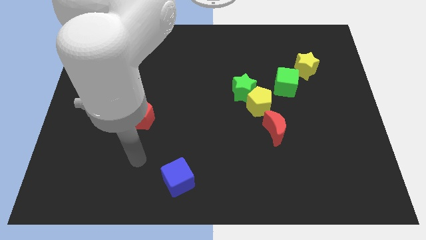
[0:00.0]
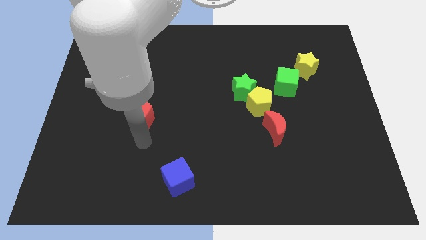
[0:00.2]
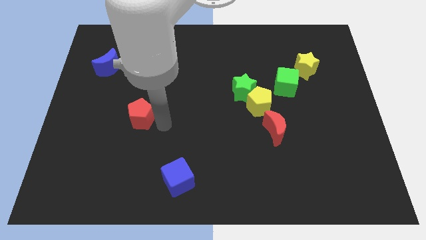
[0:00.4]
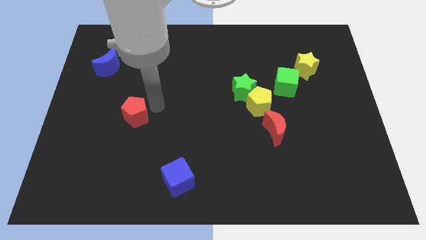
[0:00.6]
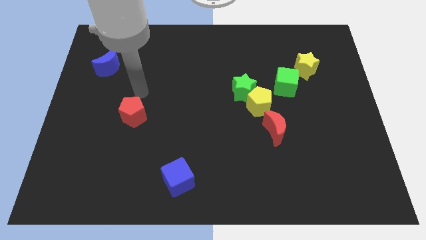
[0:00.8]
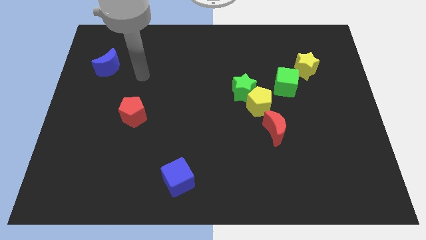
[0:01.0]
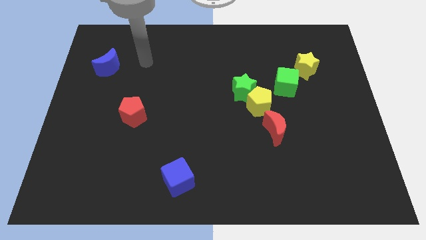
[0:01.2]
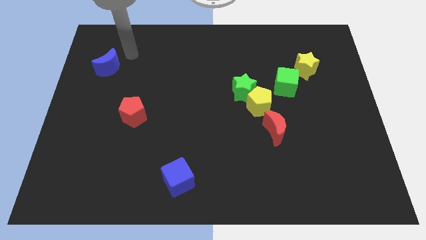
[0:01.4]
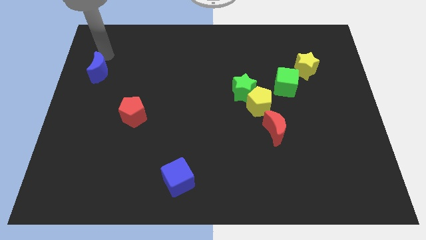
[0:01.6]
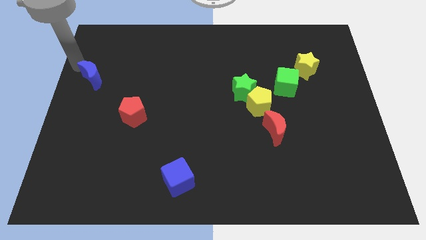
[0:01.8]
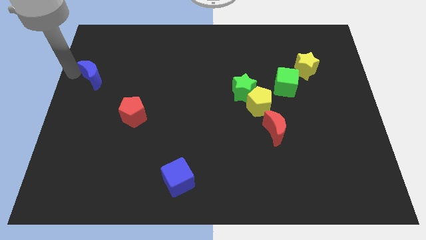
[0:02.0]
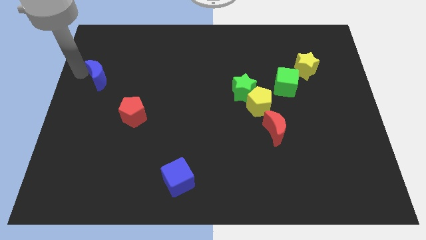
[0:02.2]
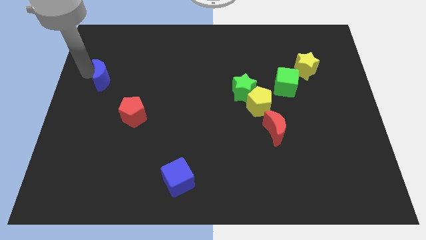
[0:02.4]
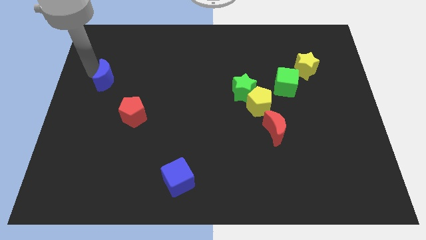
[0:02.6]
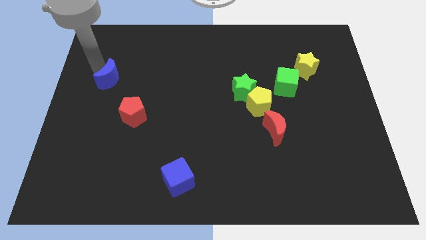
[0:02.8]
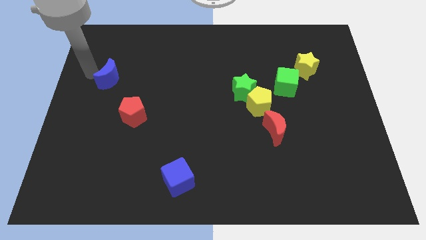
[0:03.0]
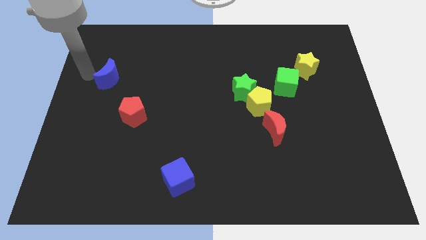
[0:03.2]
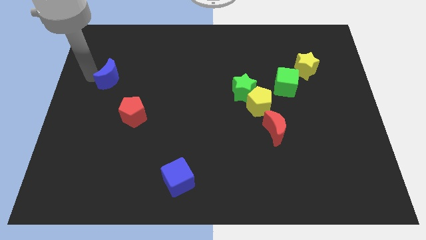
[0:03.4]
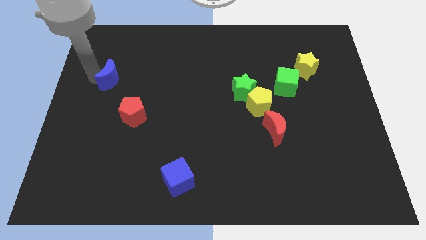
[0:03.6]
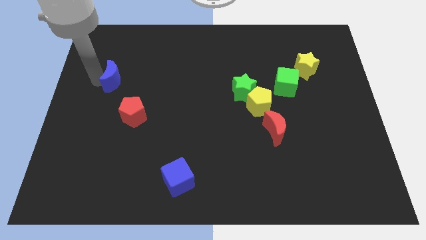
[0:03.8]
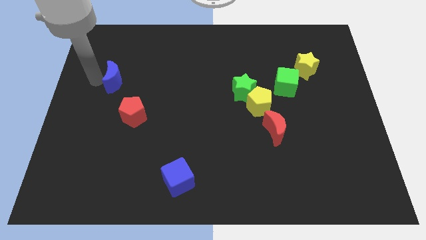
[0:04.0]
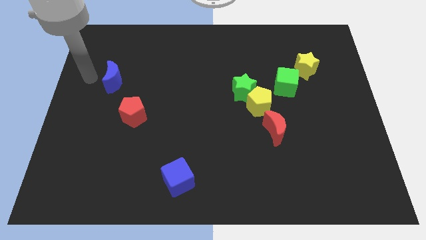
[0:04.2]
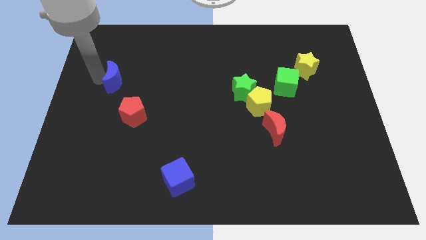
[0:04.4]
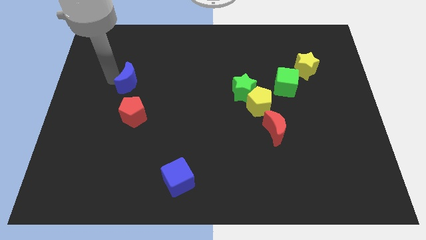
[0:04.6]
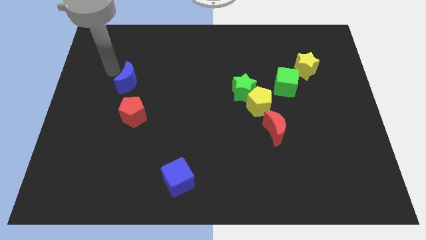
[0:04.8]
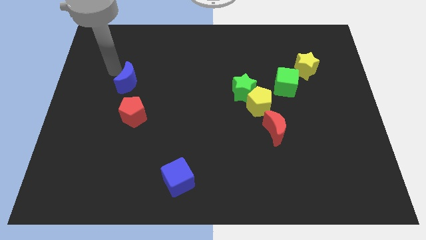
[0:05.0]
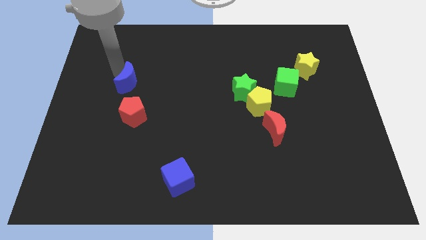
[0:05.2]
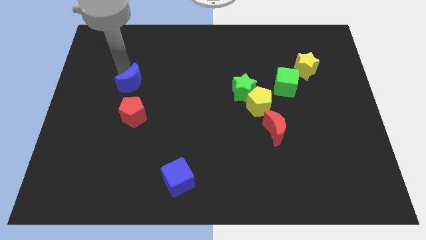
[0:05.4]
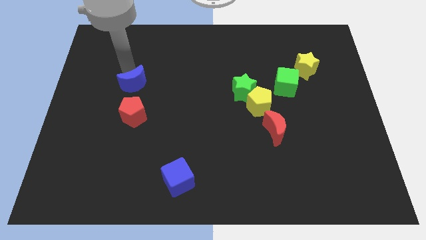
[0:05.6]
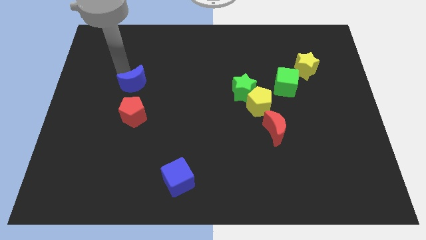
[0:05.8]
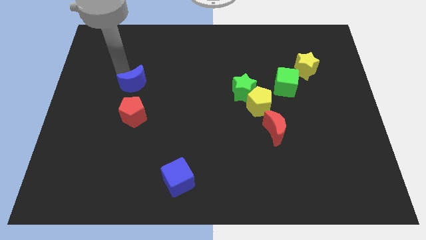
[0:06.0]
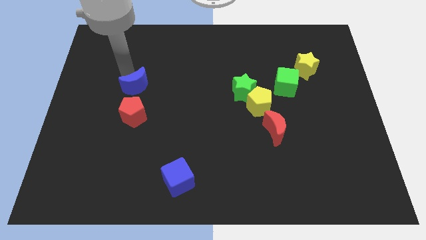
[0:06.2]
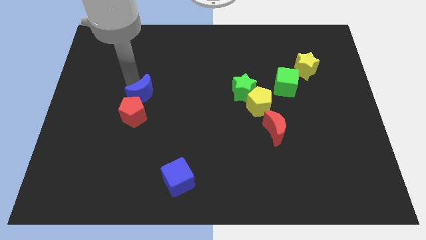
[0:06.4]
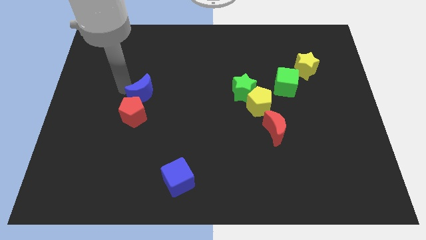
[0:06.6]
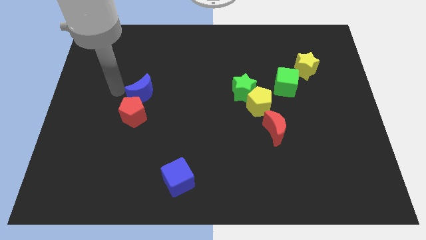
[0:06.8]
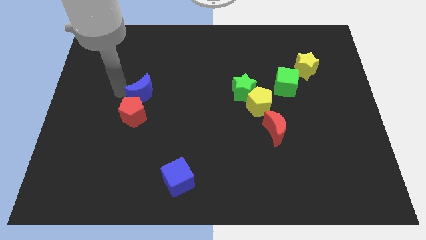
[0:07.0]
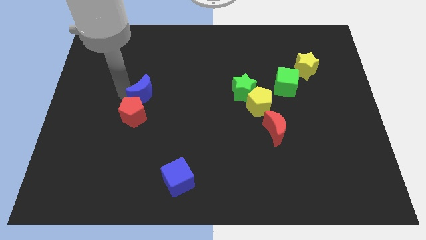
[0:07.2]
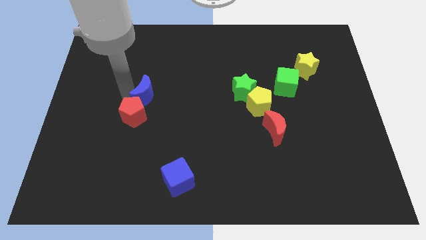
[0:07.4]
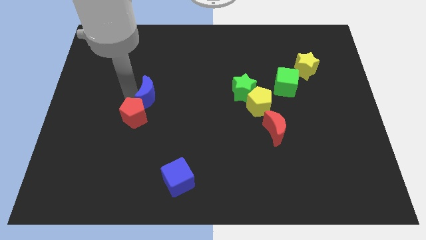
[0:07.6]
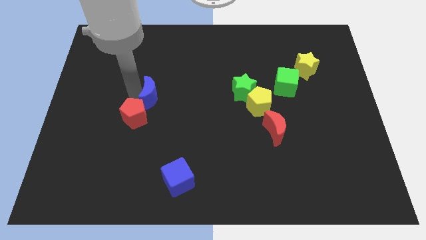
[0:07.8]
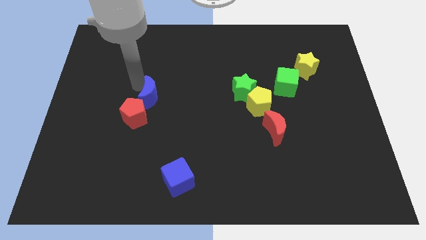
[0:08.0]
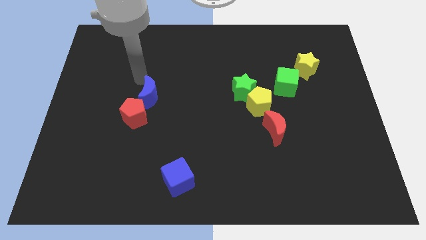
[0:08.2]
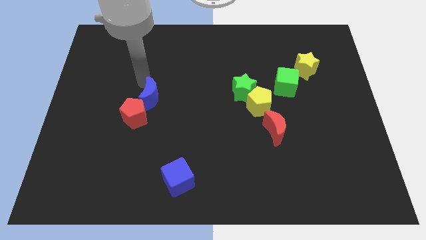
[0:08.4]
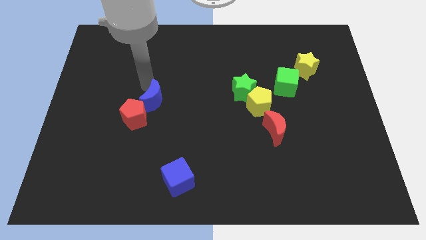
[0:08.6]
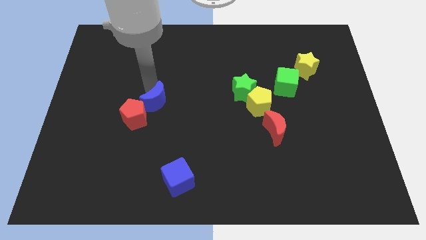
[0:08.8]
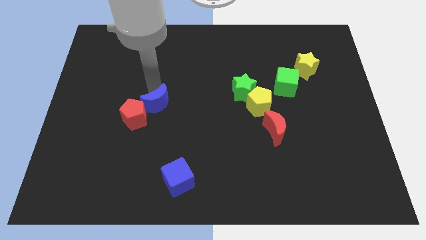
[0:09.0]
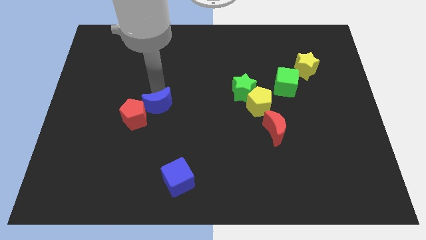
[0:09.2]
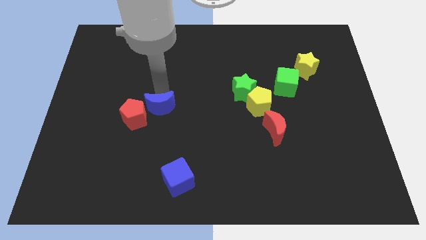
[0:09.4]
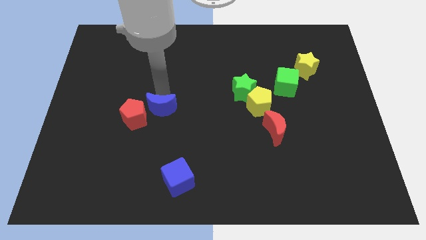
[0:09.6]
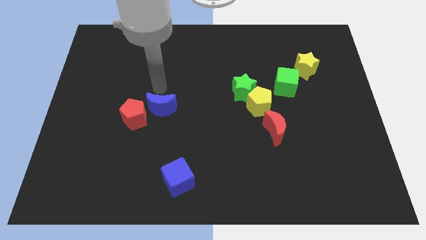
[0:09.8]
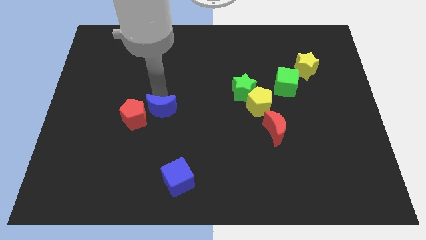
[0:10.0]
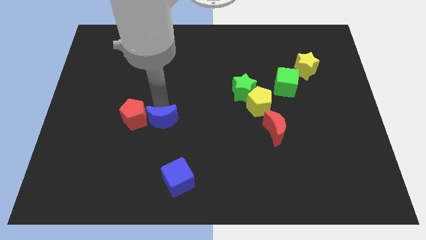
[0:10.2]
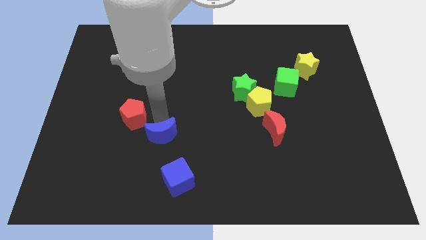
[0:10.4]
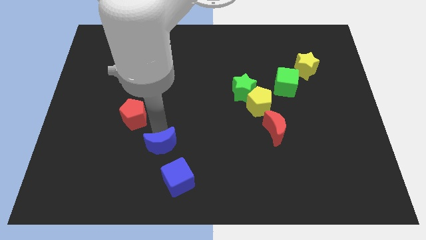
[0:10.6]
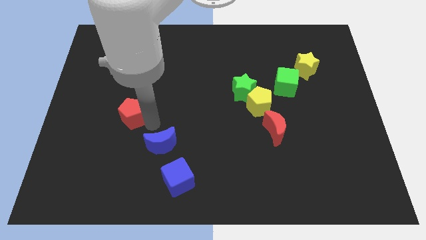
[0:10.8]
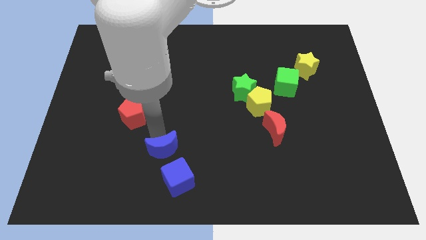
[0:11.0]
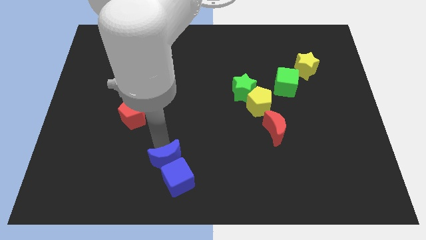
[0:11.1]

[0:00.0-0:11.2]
put the blue moon towards the blue cube

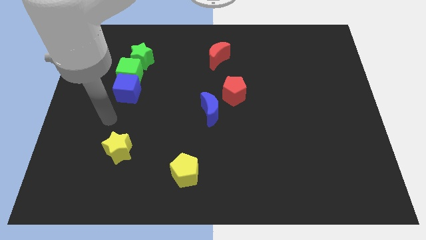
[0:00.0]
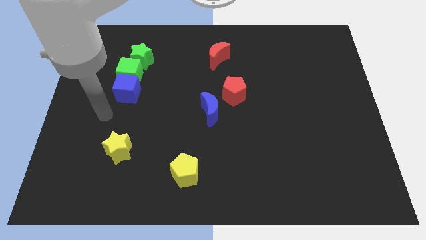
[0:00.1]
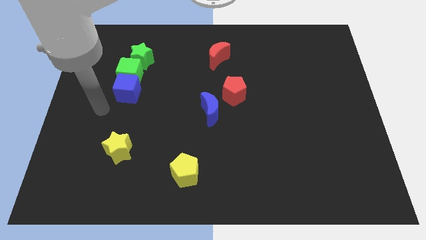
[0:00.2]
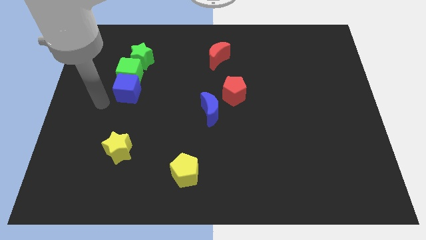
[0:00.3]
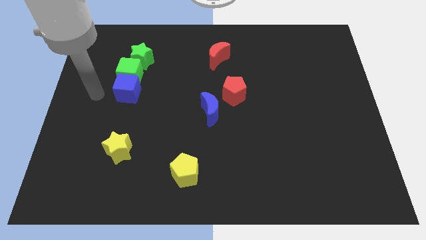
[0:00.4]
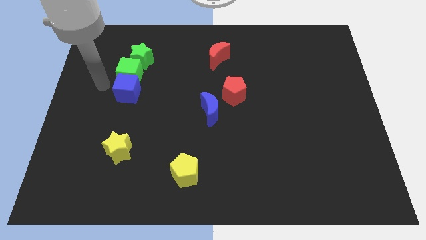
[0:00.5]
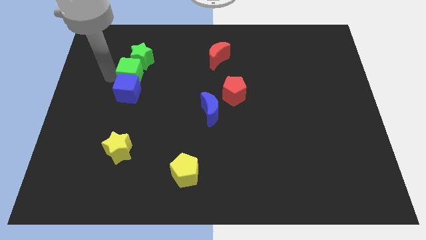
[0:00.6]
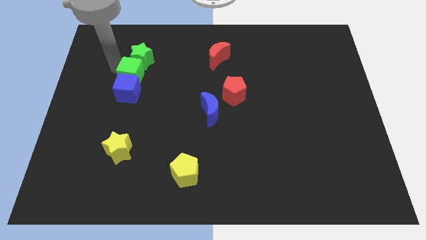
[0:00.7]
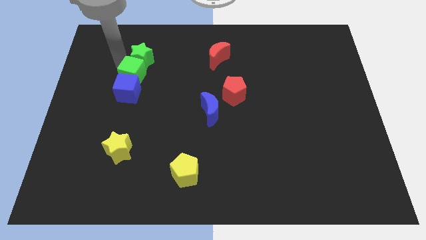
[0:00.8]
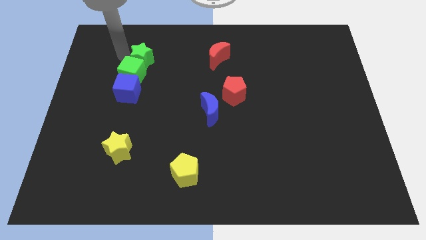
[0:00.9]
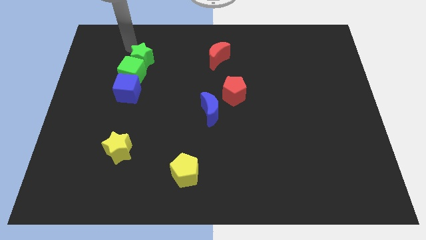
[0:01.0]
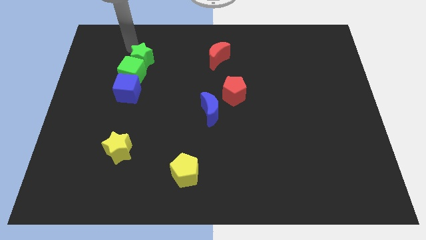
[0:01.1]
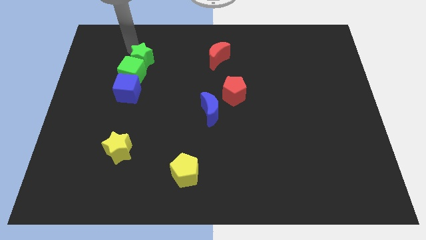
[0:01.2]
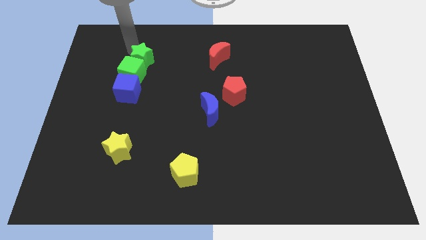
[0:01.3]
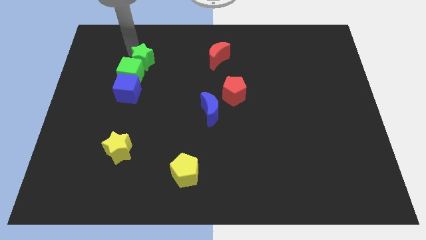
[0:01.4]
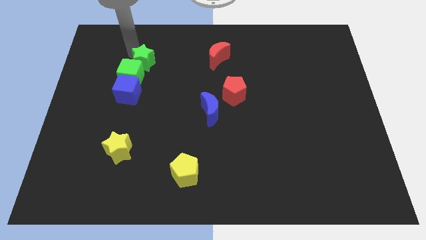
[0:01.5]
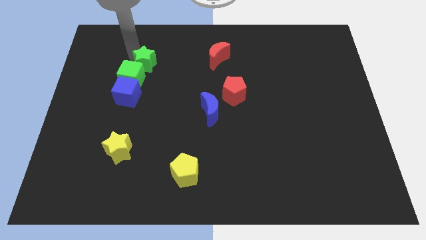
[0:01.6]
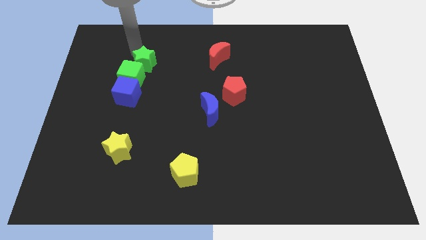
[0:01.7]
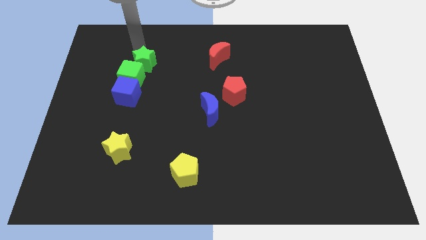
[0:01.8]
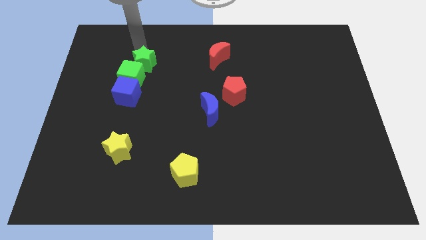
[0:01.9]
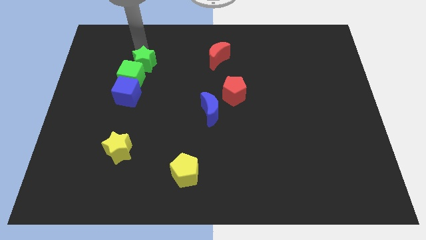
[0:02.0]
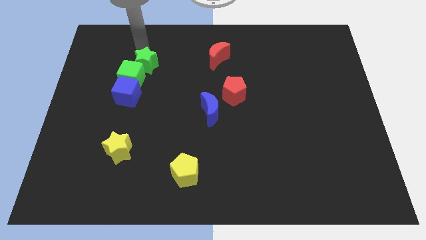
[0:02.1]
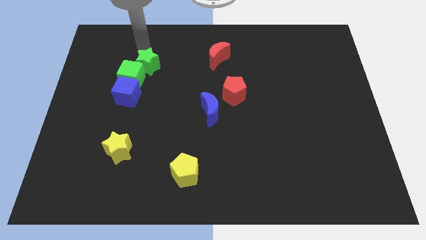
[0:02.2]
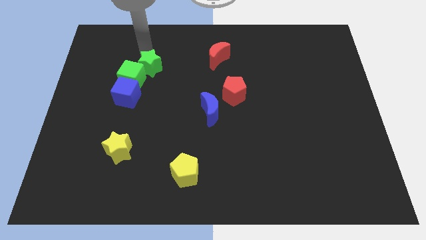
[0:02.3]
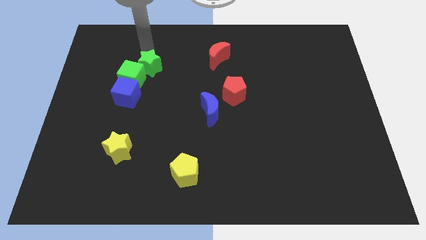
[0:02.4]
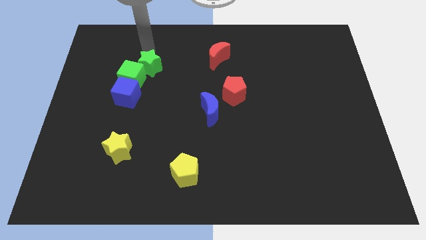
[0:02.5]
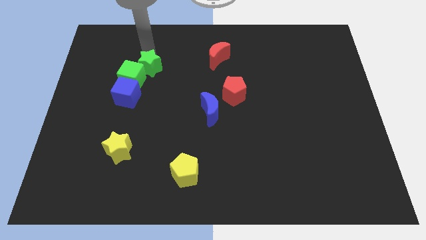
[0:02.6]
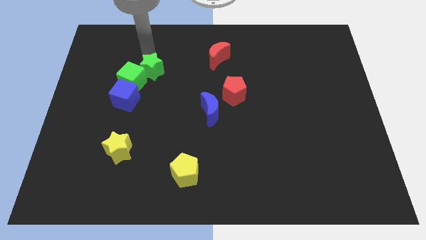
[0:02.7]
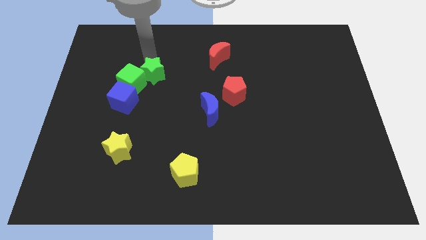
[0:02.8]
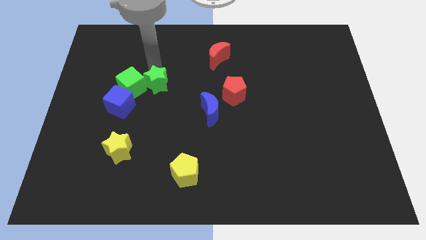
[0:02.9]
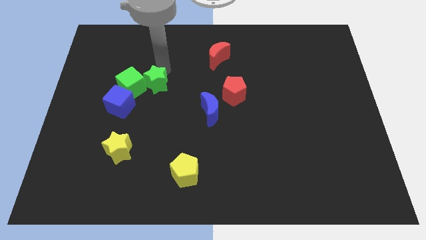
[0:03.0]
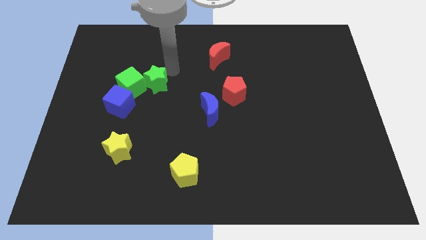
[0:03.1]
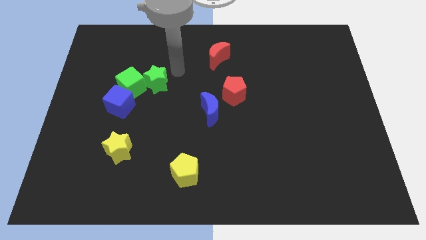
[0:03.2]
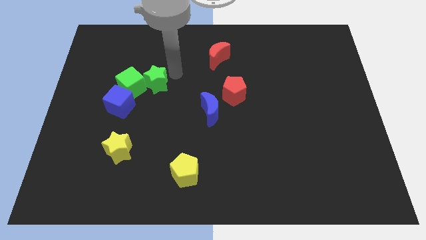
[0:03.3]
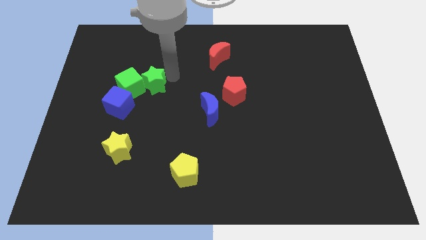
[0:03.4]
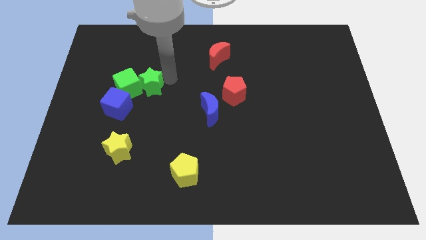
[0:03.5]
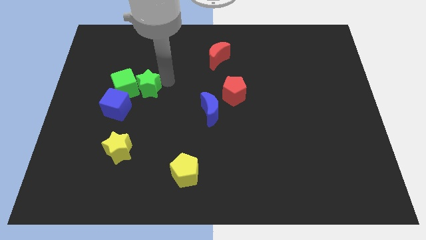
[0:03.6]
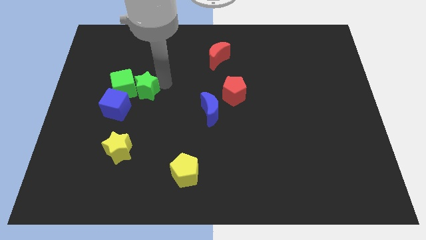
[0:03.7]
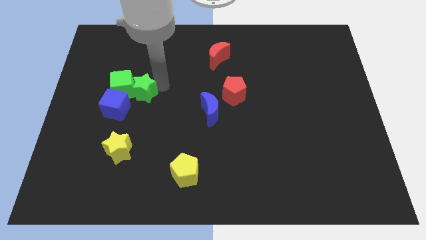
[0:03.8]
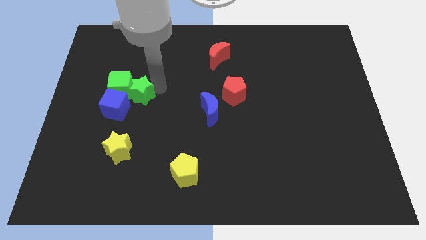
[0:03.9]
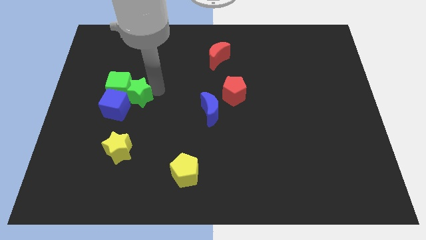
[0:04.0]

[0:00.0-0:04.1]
put the green star to the blue cube
